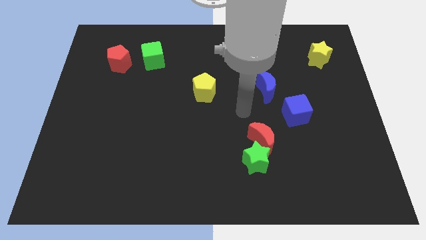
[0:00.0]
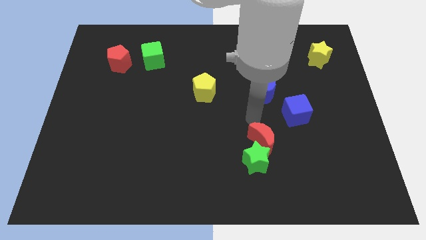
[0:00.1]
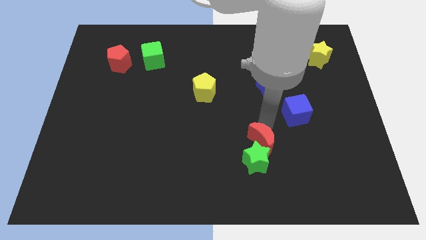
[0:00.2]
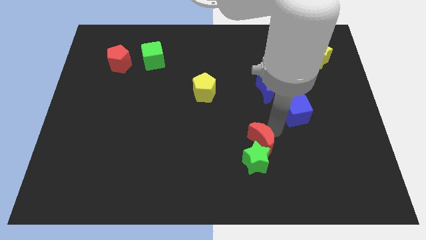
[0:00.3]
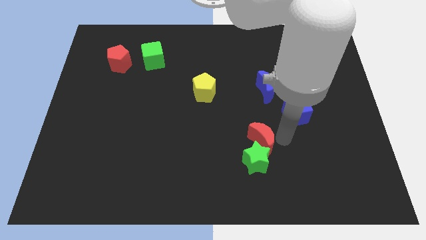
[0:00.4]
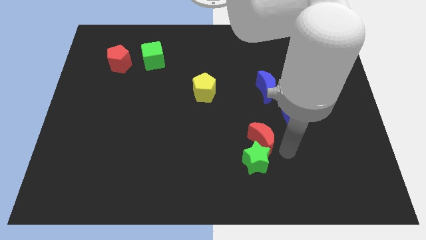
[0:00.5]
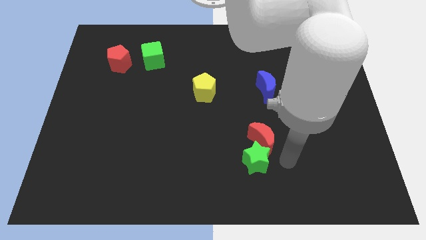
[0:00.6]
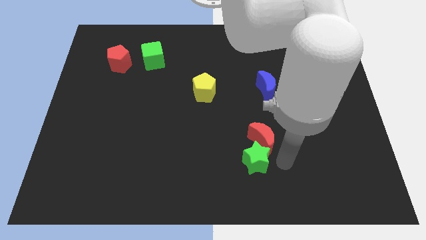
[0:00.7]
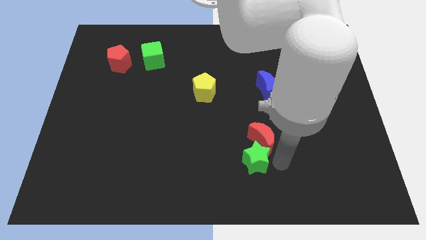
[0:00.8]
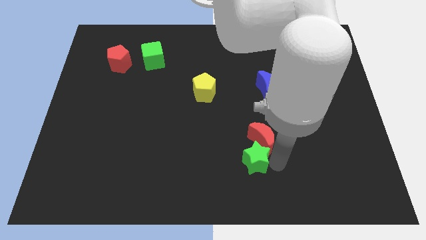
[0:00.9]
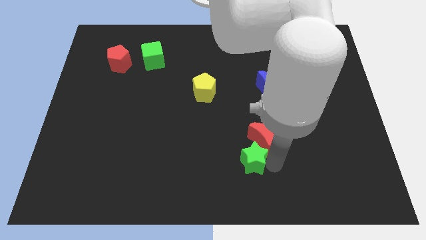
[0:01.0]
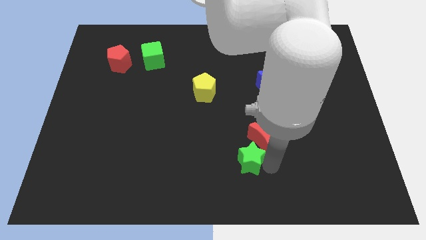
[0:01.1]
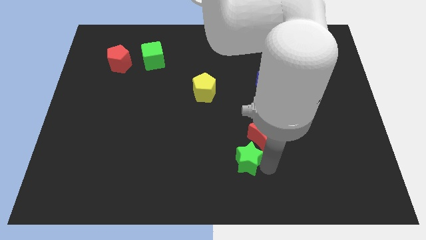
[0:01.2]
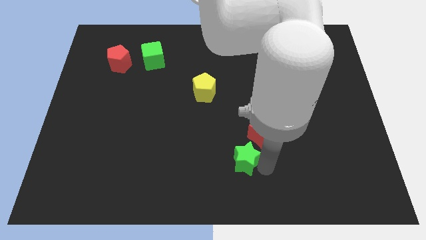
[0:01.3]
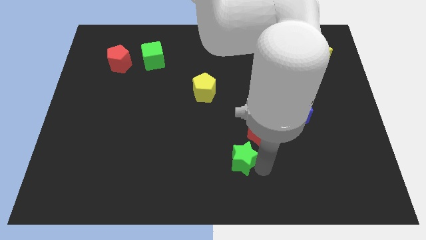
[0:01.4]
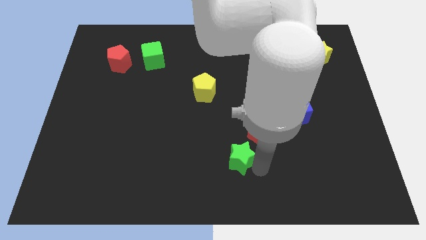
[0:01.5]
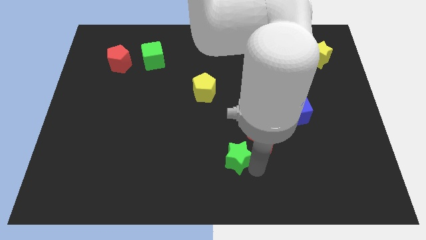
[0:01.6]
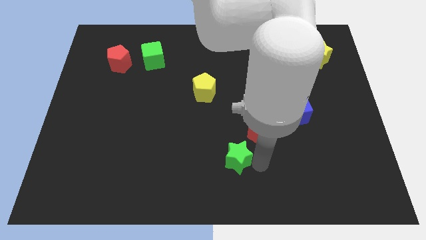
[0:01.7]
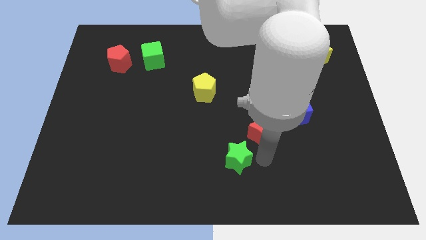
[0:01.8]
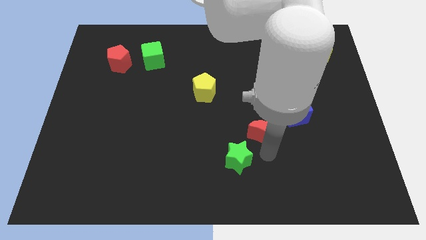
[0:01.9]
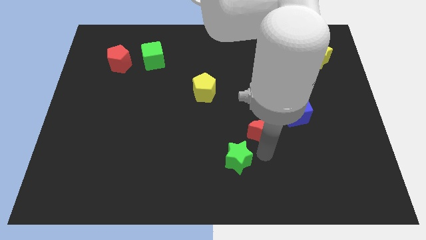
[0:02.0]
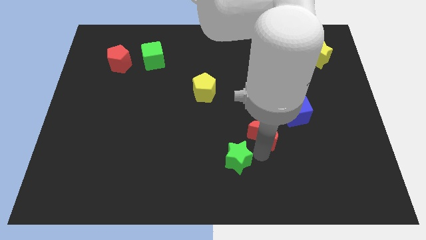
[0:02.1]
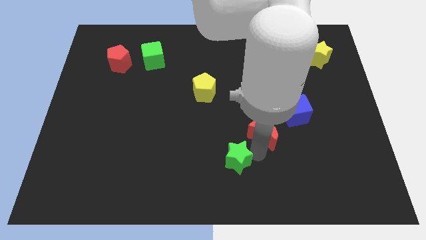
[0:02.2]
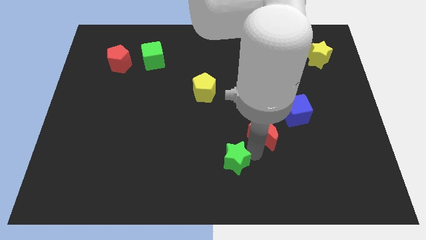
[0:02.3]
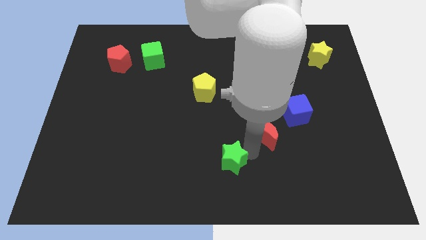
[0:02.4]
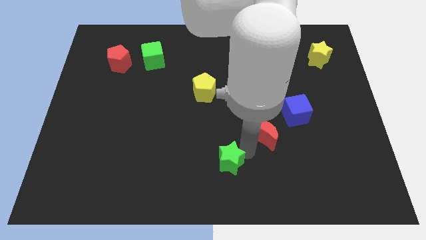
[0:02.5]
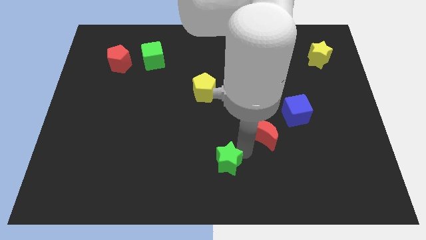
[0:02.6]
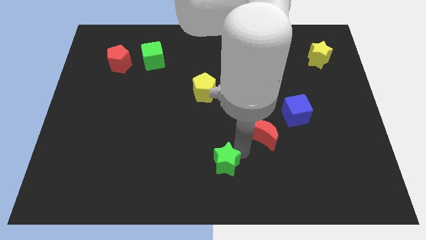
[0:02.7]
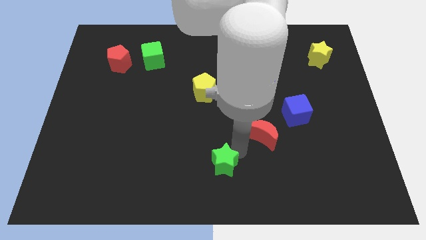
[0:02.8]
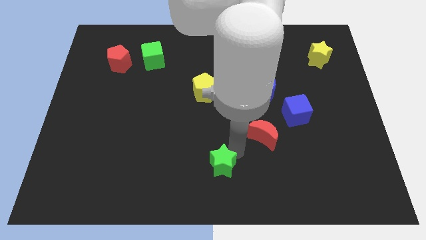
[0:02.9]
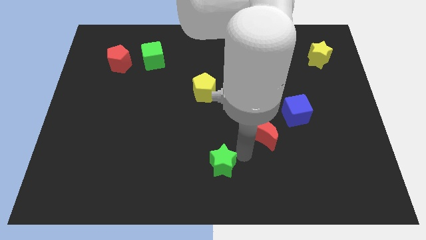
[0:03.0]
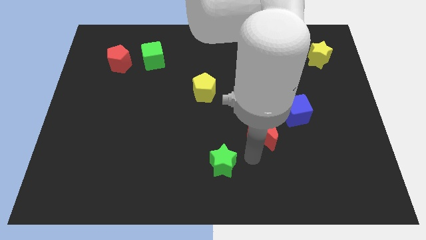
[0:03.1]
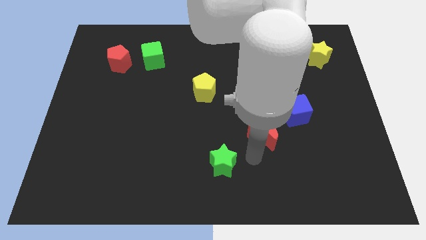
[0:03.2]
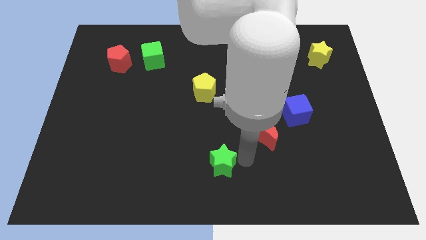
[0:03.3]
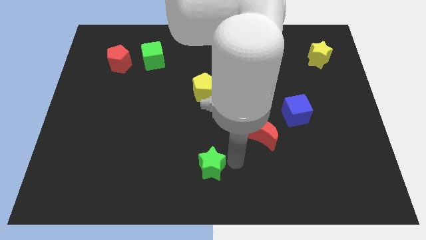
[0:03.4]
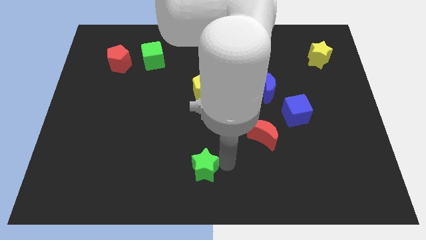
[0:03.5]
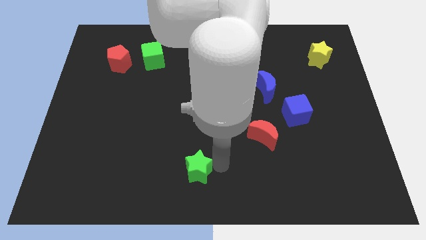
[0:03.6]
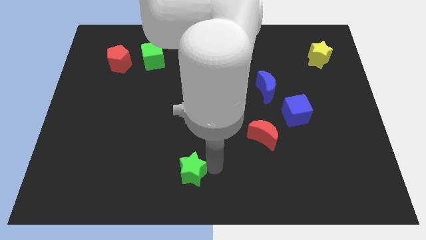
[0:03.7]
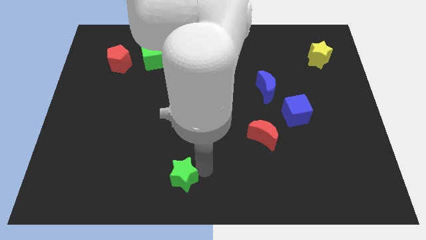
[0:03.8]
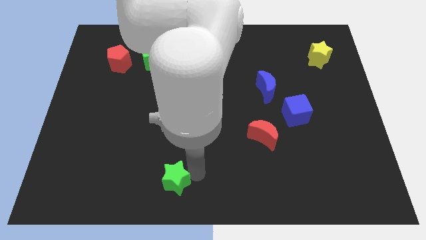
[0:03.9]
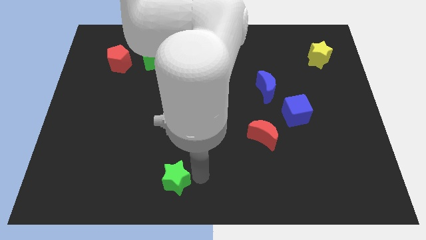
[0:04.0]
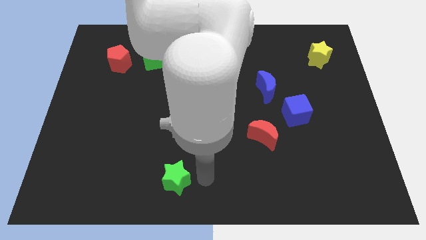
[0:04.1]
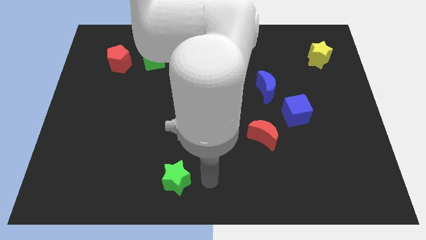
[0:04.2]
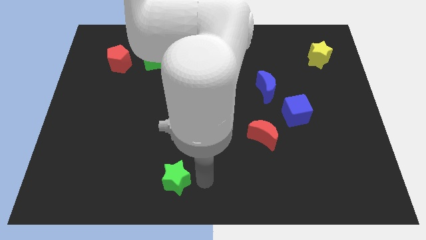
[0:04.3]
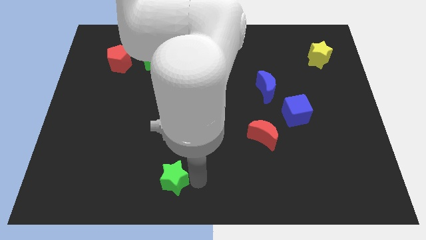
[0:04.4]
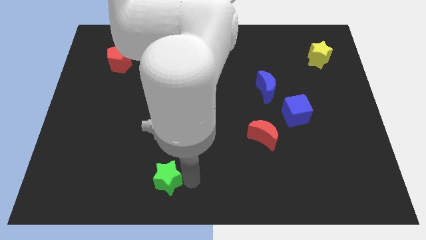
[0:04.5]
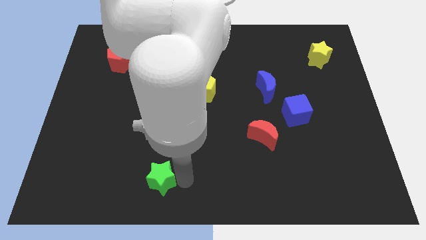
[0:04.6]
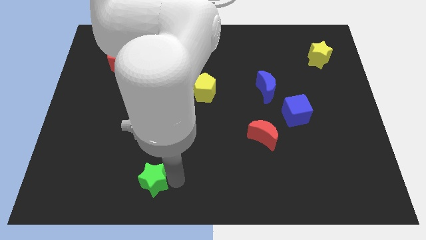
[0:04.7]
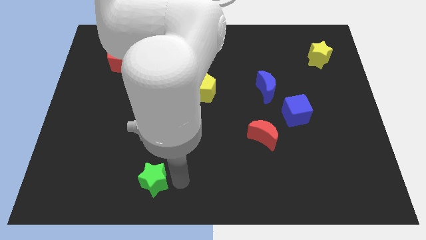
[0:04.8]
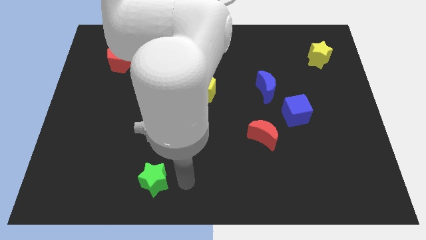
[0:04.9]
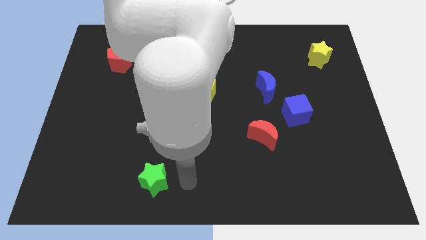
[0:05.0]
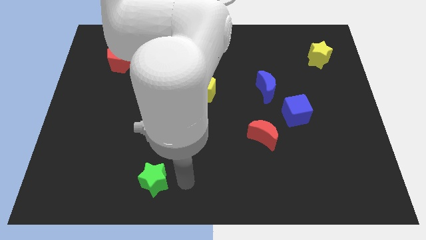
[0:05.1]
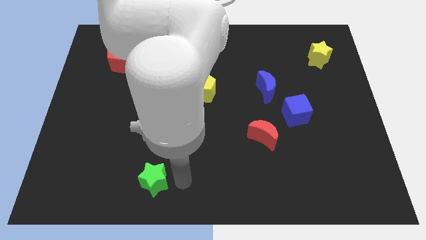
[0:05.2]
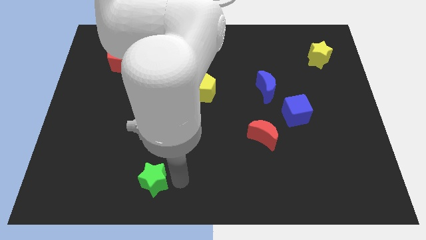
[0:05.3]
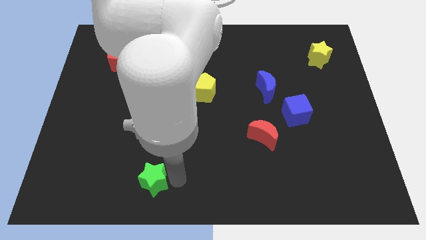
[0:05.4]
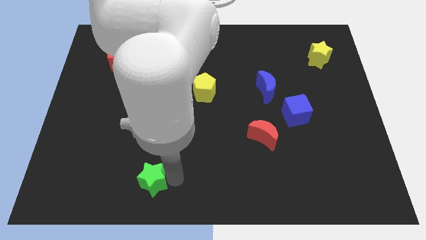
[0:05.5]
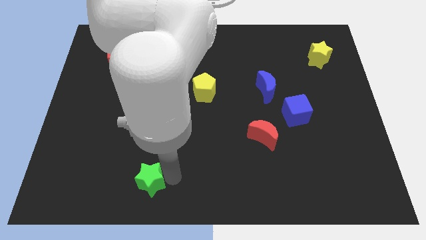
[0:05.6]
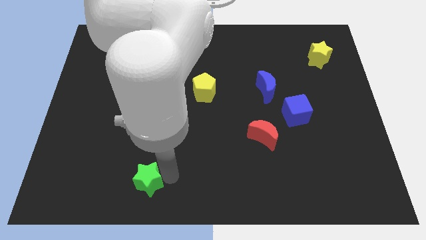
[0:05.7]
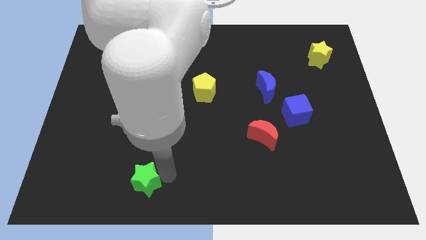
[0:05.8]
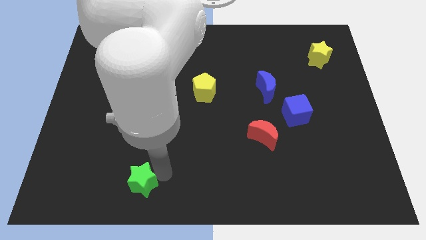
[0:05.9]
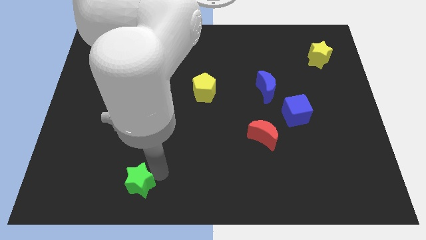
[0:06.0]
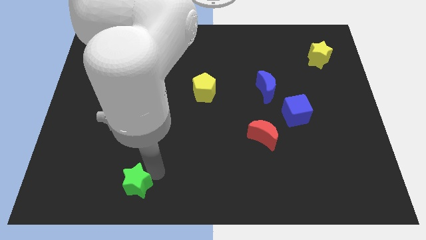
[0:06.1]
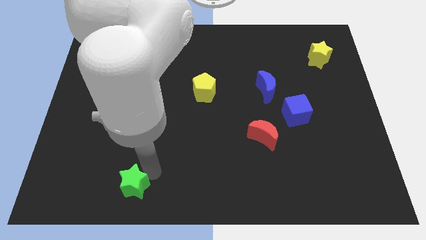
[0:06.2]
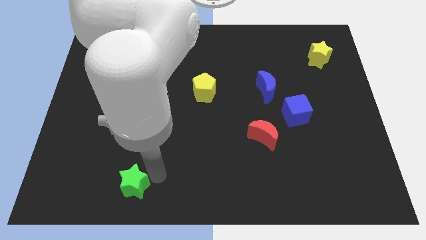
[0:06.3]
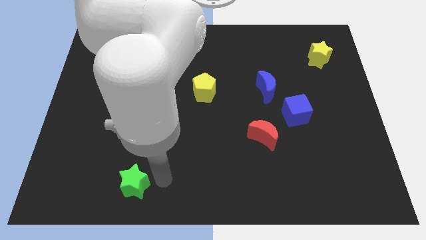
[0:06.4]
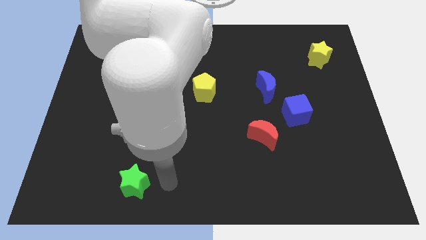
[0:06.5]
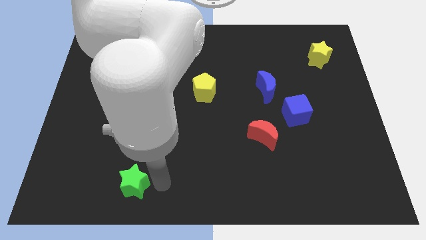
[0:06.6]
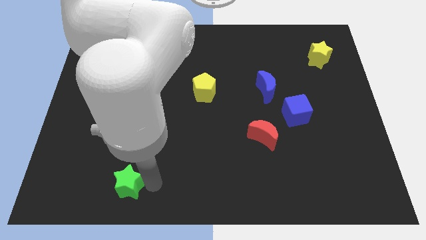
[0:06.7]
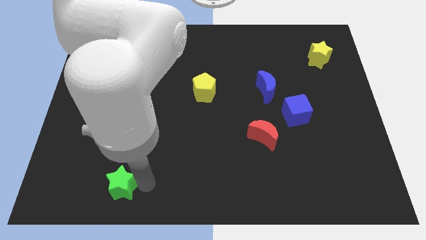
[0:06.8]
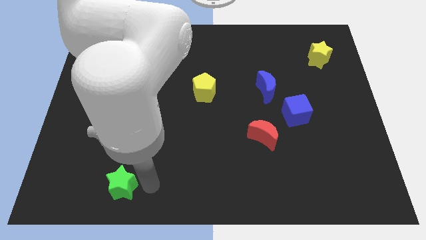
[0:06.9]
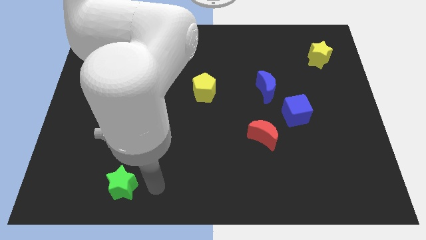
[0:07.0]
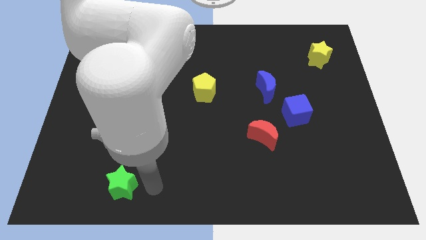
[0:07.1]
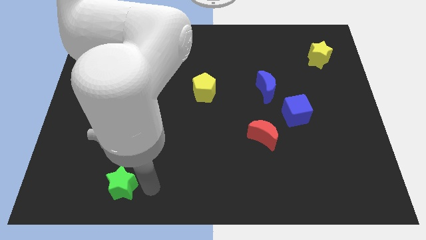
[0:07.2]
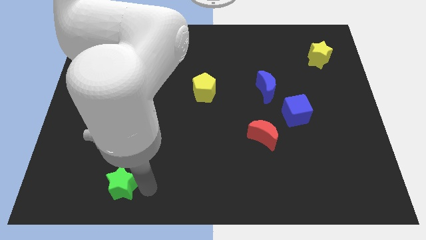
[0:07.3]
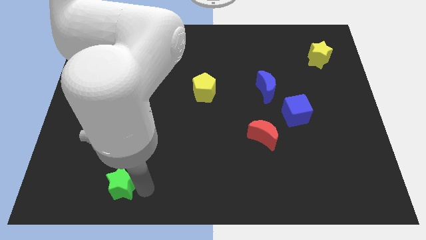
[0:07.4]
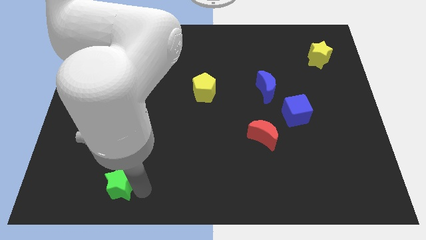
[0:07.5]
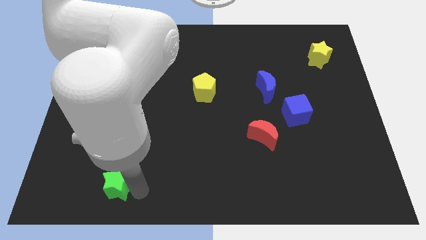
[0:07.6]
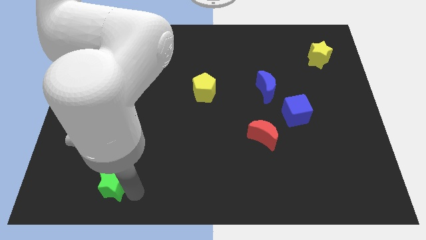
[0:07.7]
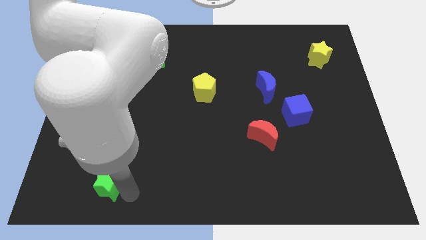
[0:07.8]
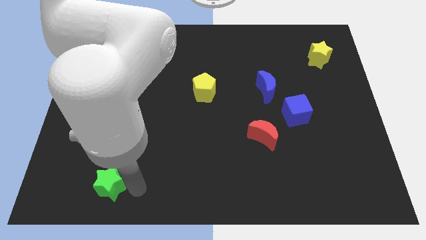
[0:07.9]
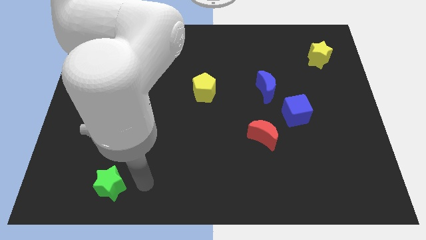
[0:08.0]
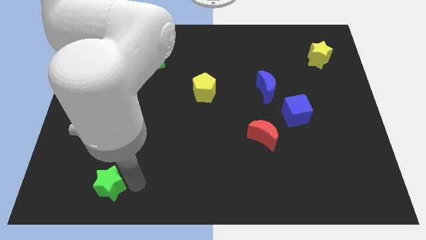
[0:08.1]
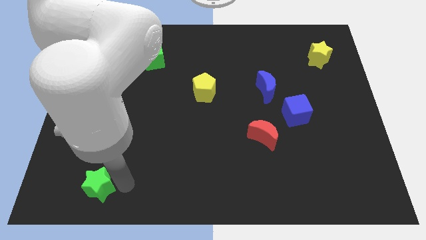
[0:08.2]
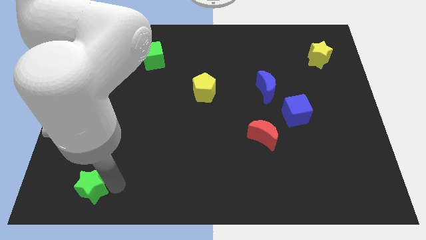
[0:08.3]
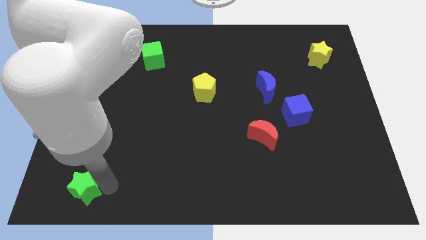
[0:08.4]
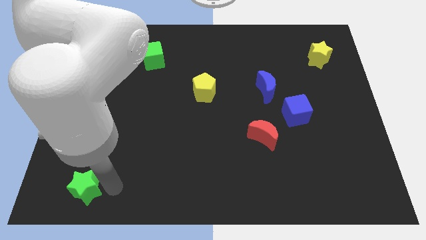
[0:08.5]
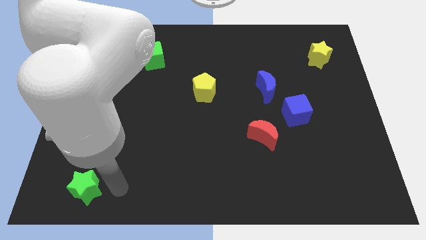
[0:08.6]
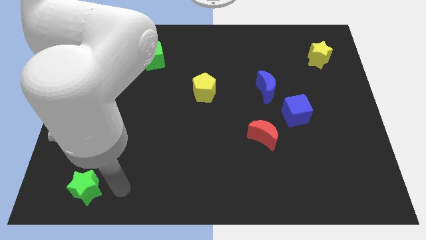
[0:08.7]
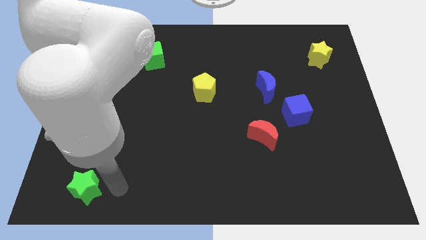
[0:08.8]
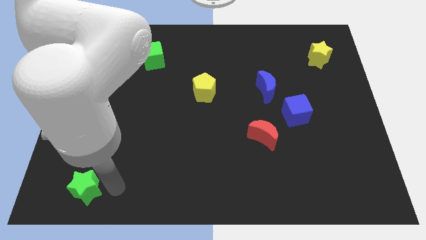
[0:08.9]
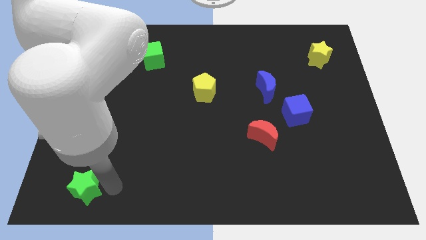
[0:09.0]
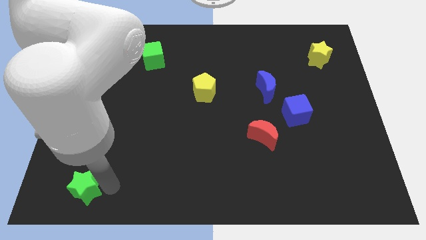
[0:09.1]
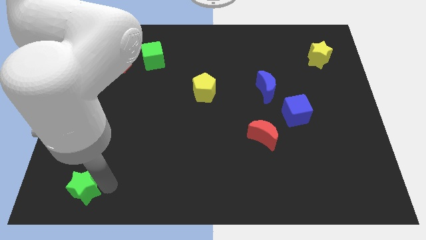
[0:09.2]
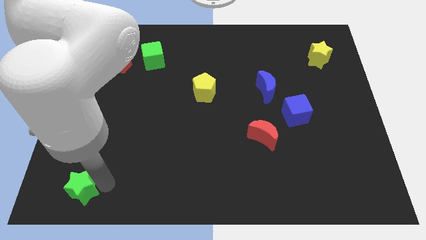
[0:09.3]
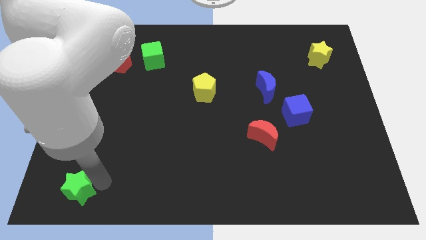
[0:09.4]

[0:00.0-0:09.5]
push the green star to the bottom left
